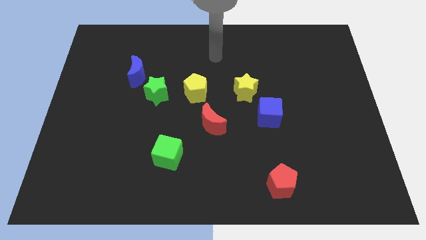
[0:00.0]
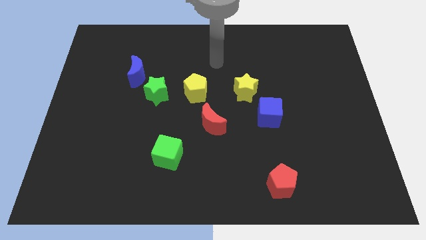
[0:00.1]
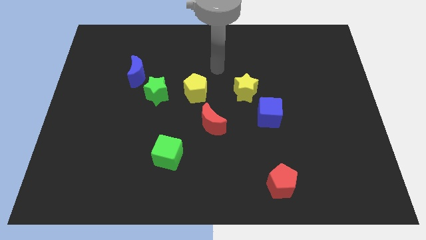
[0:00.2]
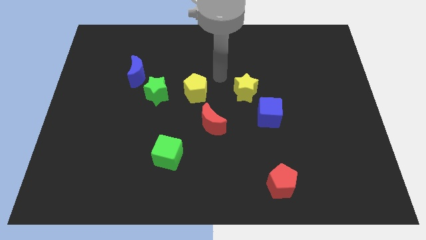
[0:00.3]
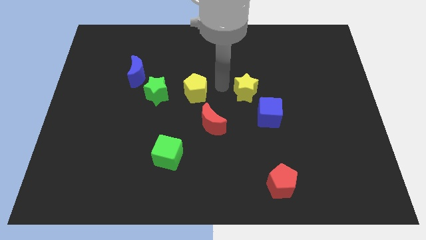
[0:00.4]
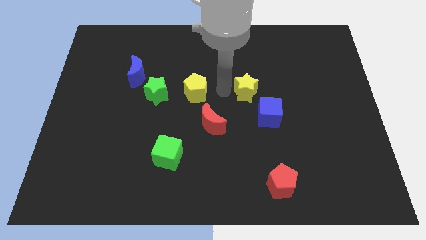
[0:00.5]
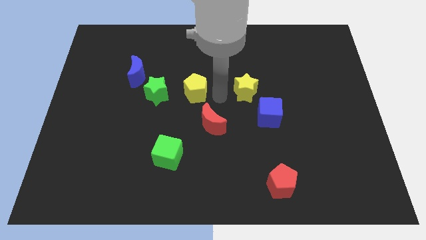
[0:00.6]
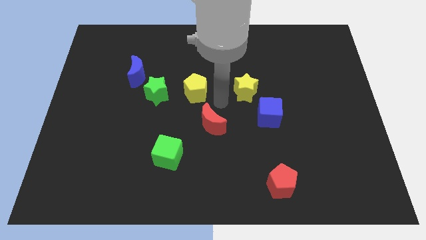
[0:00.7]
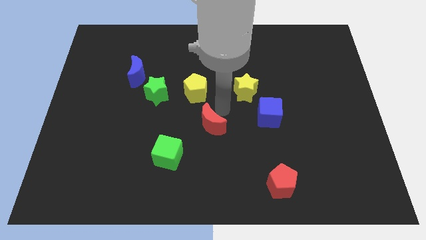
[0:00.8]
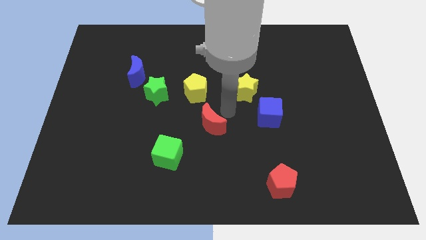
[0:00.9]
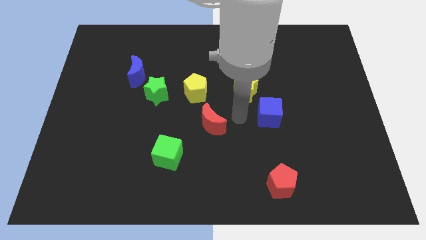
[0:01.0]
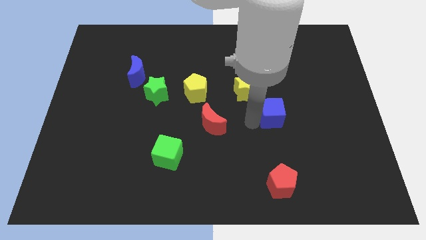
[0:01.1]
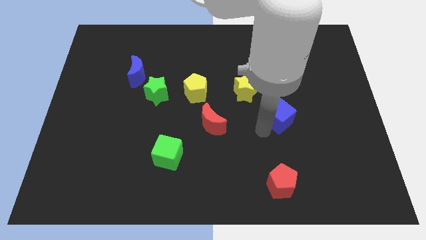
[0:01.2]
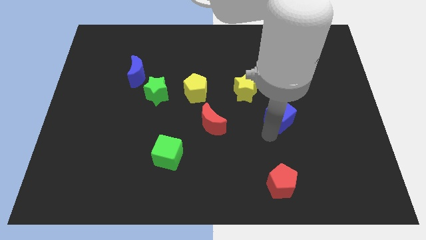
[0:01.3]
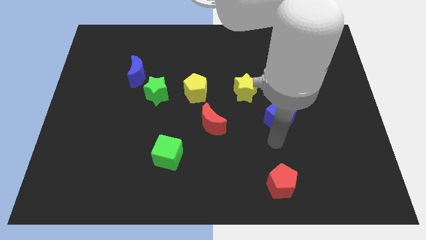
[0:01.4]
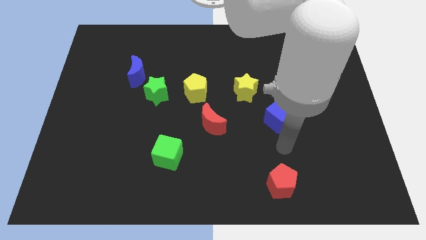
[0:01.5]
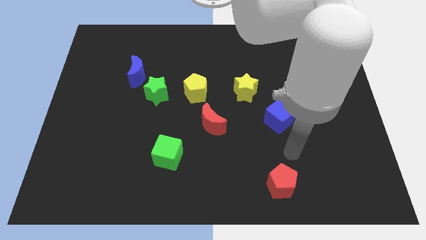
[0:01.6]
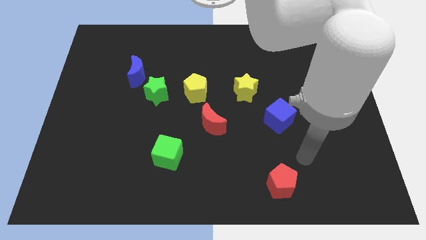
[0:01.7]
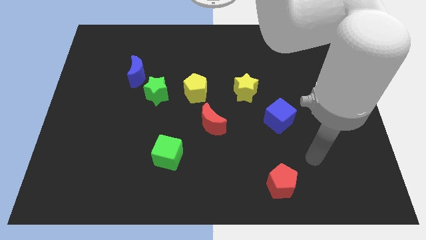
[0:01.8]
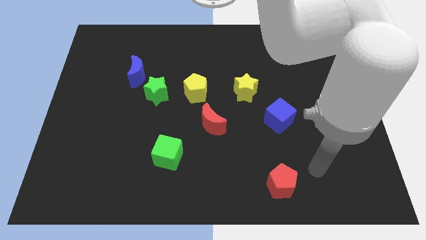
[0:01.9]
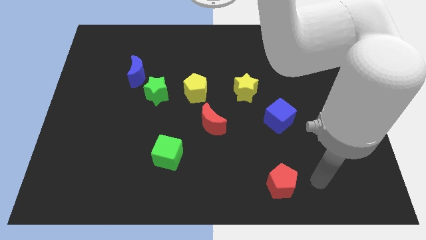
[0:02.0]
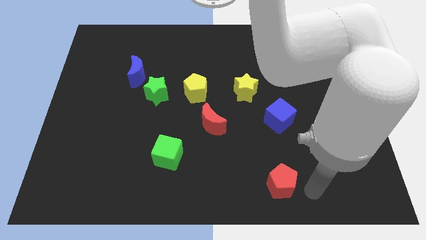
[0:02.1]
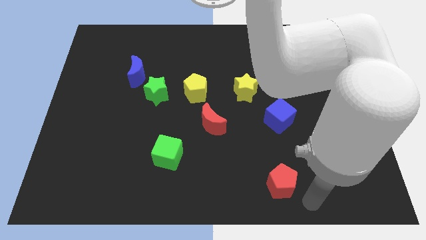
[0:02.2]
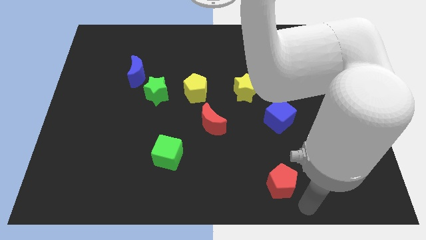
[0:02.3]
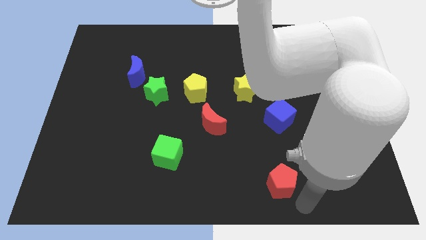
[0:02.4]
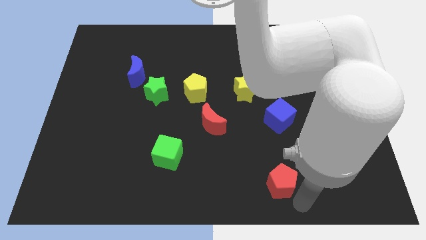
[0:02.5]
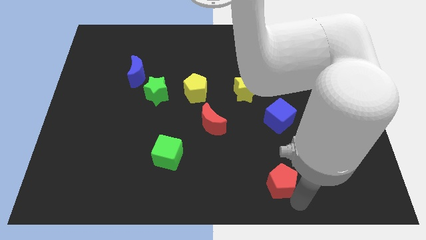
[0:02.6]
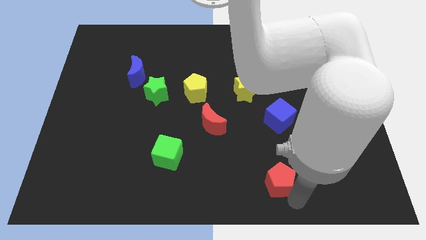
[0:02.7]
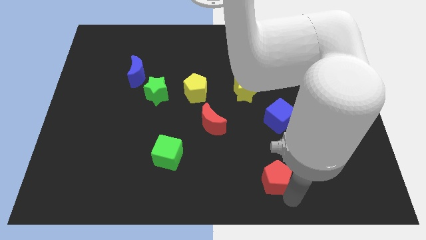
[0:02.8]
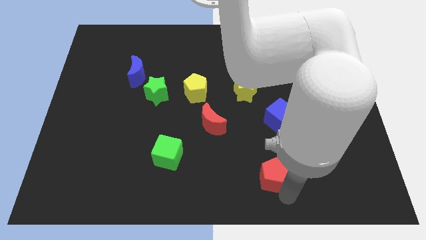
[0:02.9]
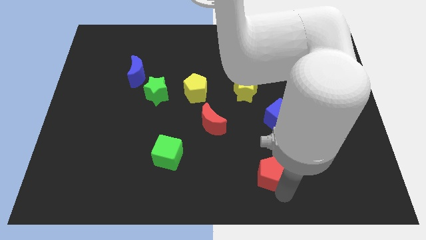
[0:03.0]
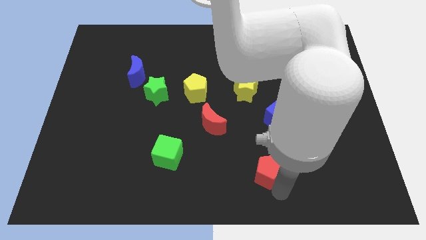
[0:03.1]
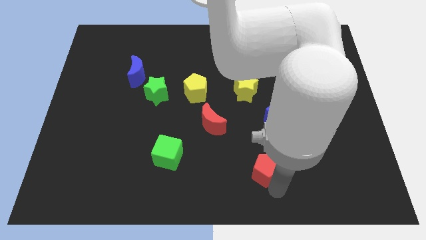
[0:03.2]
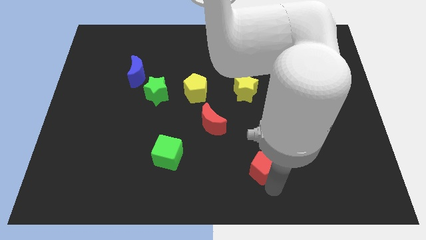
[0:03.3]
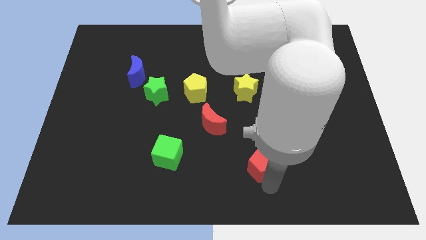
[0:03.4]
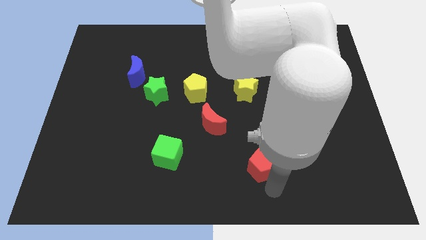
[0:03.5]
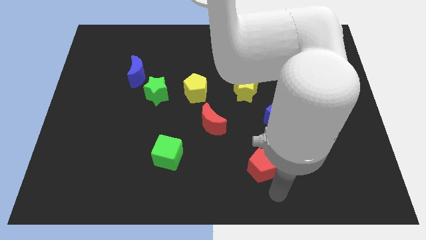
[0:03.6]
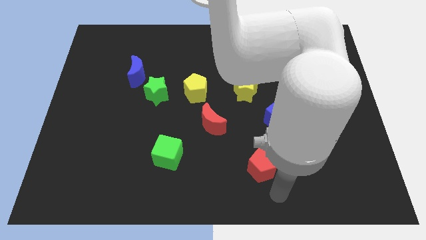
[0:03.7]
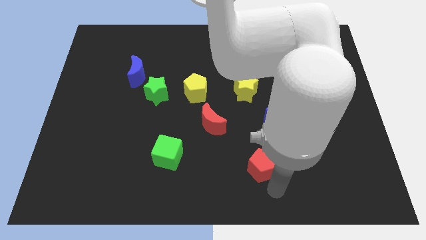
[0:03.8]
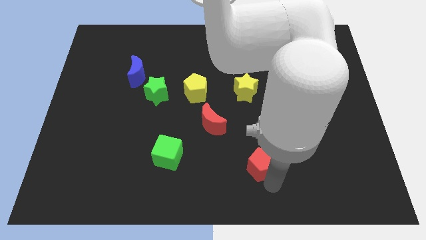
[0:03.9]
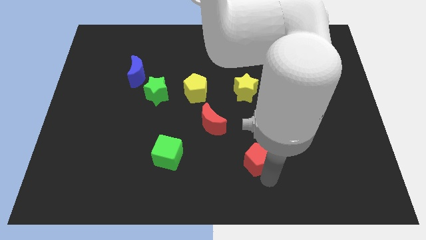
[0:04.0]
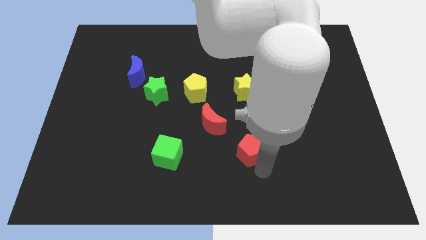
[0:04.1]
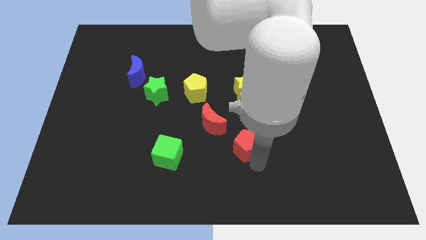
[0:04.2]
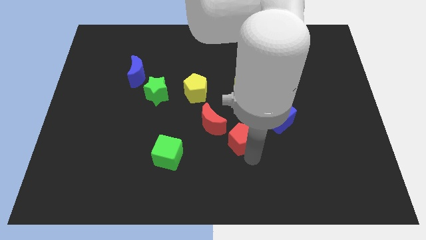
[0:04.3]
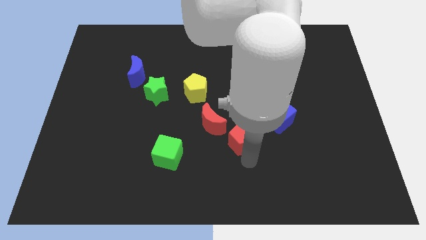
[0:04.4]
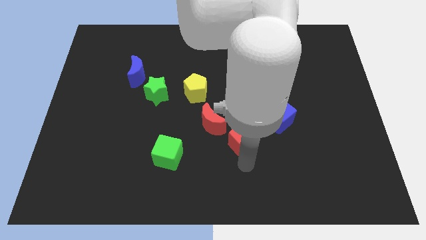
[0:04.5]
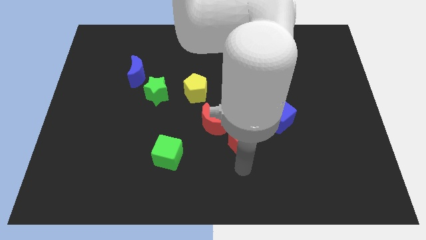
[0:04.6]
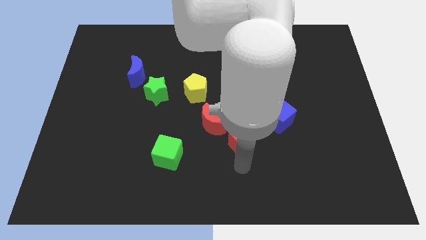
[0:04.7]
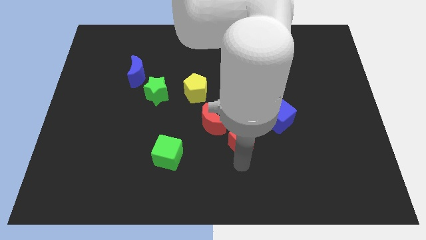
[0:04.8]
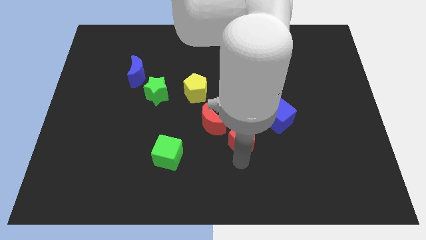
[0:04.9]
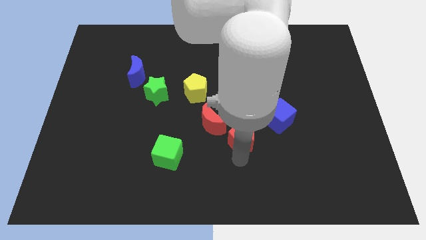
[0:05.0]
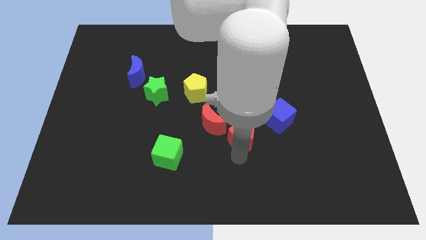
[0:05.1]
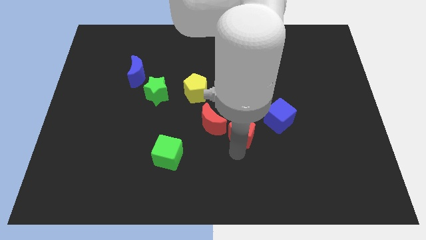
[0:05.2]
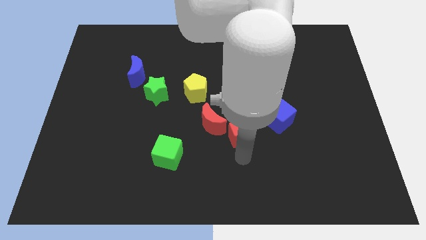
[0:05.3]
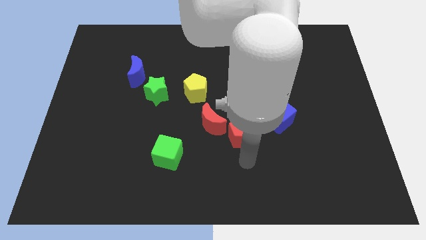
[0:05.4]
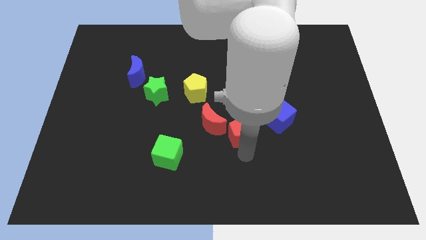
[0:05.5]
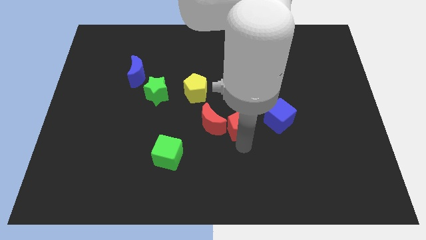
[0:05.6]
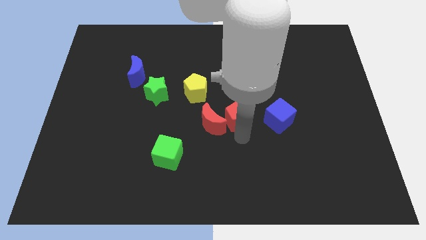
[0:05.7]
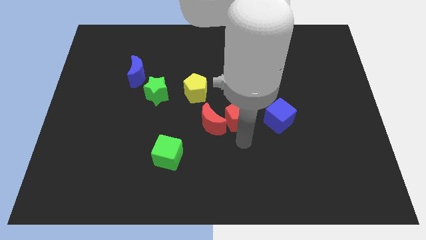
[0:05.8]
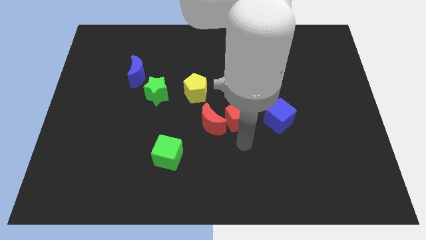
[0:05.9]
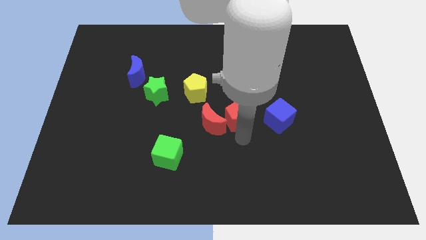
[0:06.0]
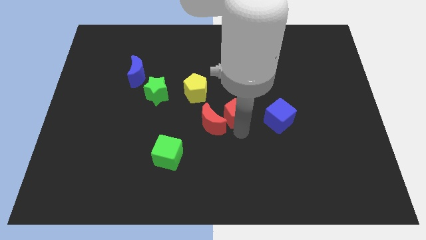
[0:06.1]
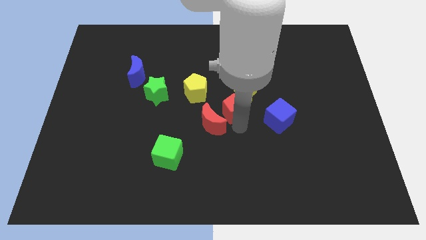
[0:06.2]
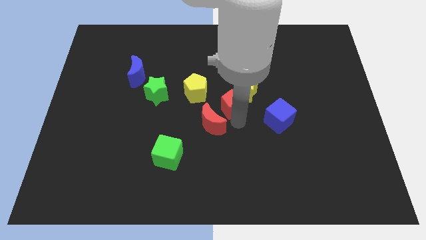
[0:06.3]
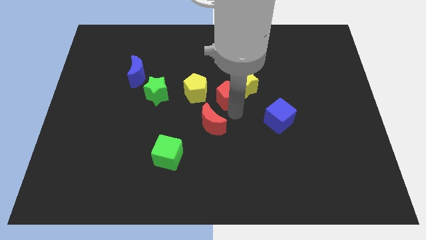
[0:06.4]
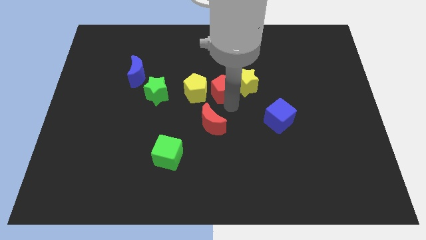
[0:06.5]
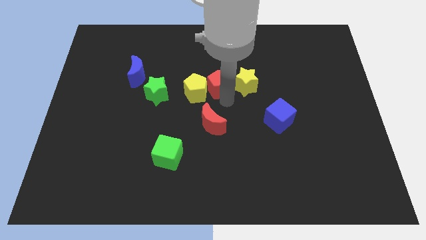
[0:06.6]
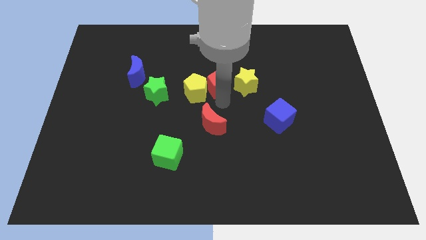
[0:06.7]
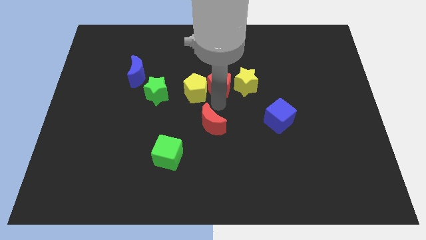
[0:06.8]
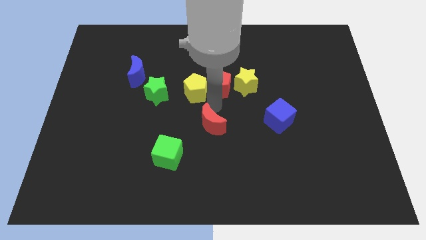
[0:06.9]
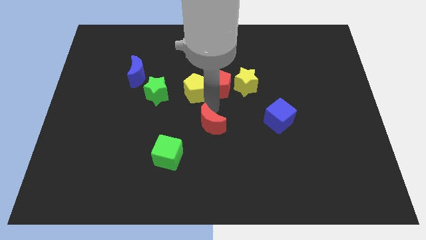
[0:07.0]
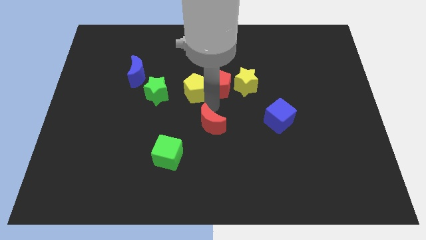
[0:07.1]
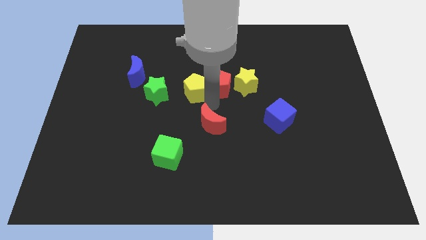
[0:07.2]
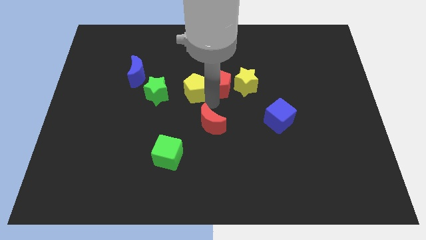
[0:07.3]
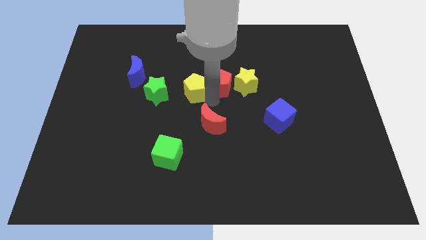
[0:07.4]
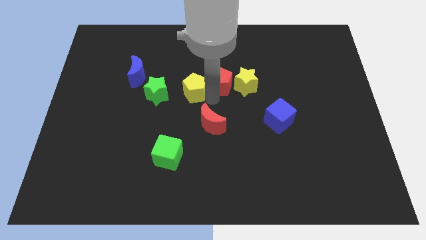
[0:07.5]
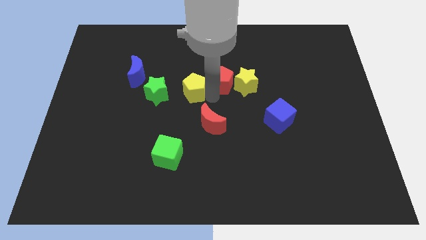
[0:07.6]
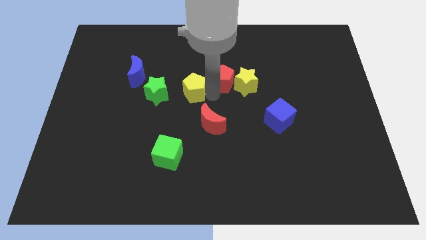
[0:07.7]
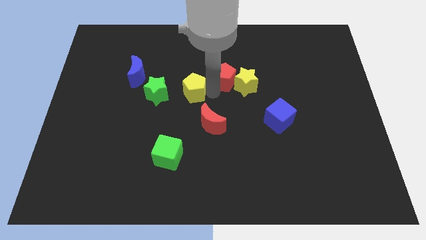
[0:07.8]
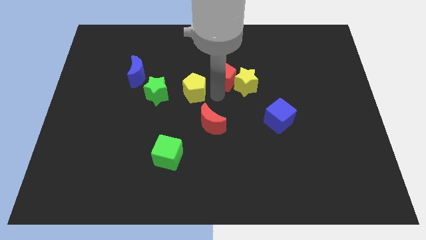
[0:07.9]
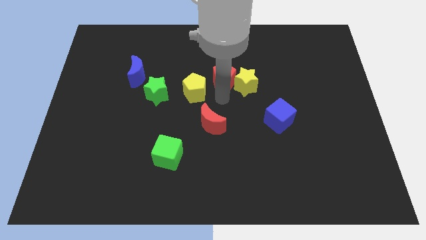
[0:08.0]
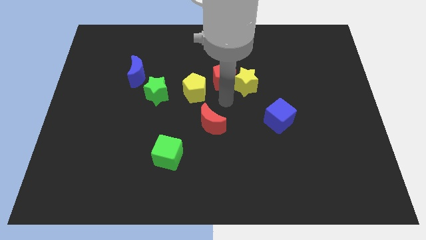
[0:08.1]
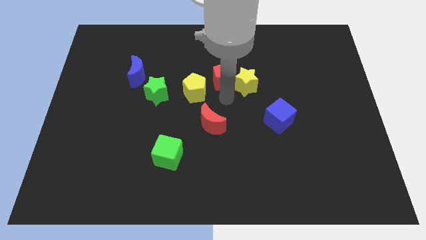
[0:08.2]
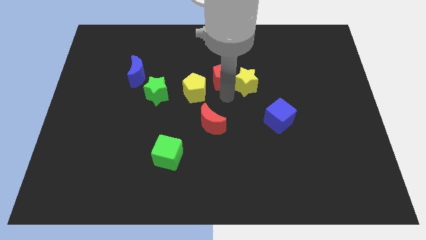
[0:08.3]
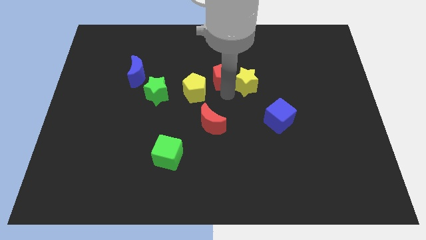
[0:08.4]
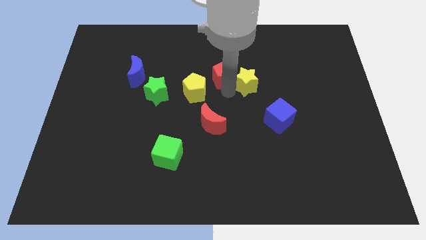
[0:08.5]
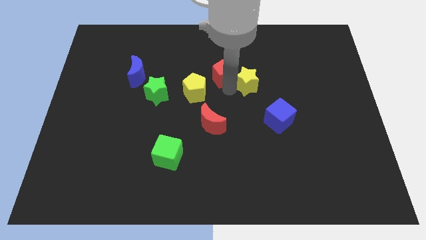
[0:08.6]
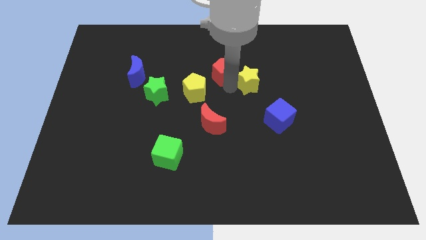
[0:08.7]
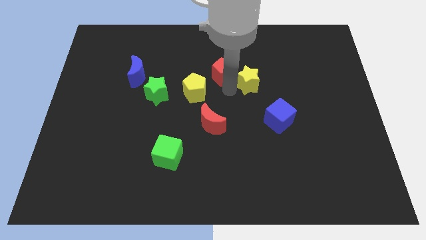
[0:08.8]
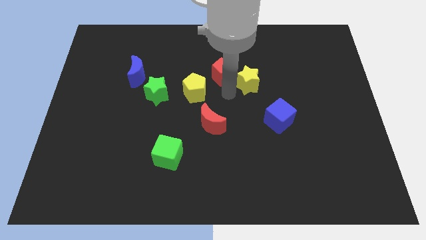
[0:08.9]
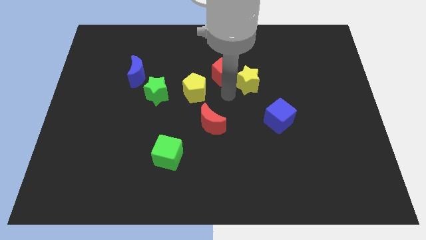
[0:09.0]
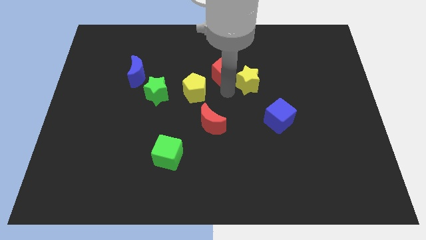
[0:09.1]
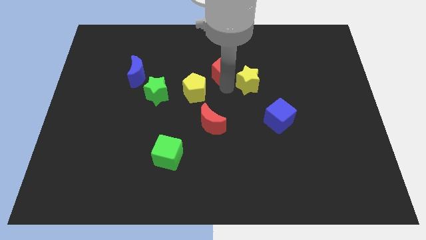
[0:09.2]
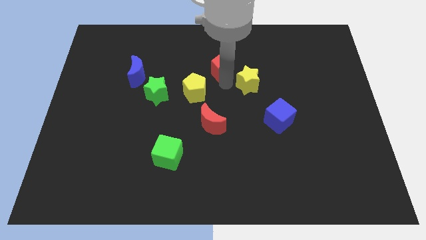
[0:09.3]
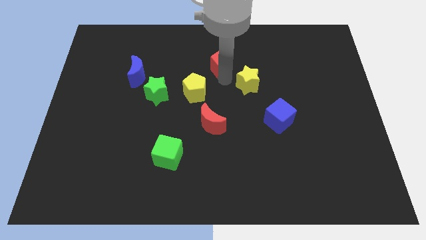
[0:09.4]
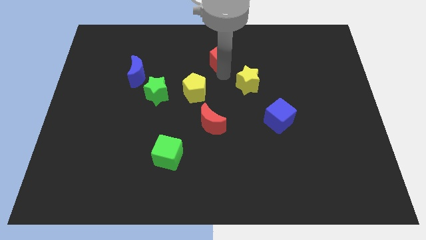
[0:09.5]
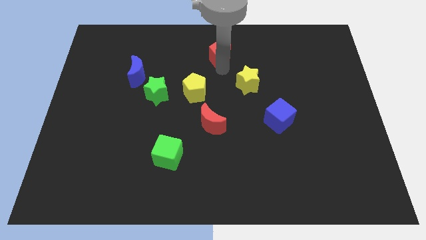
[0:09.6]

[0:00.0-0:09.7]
put the red pentagon to the top side
